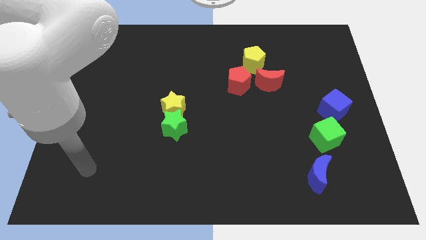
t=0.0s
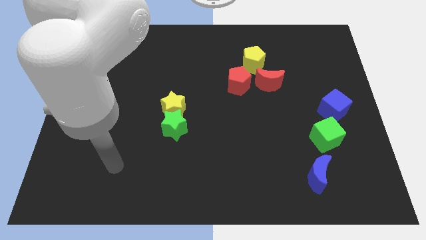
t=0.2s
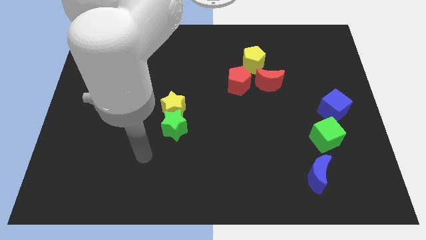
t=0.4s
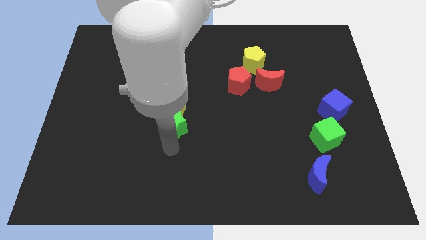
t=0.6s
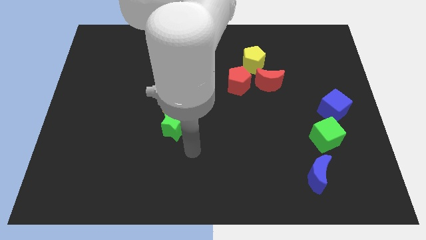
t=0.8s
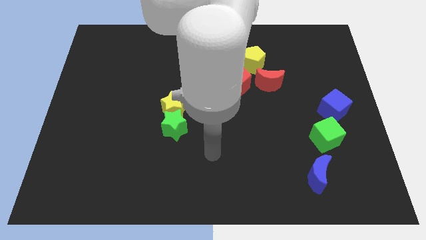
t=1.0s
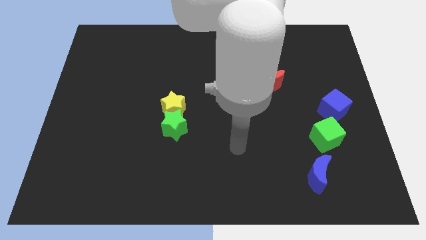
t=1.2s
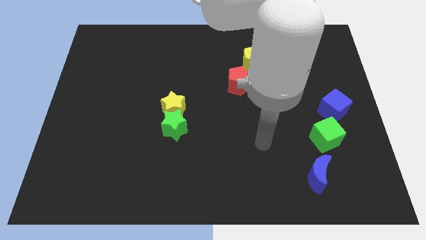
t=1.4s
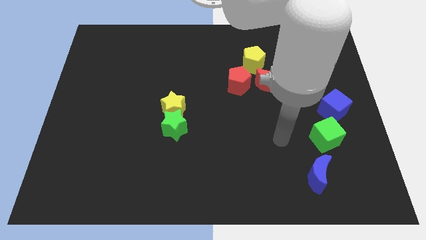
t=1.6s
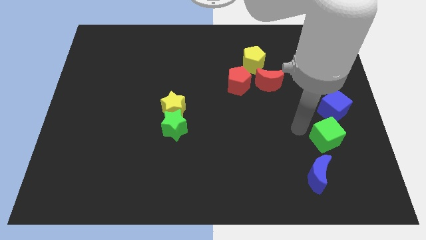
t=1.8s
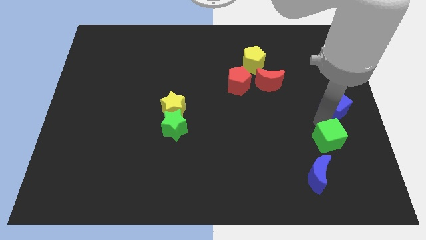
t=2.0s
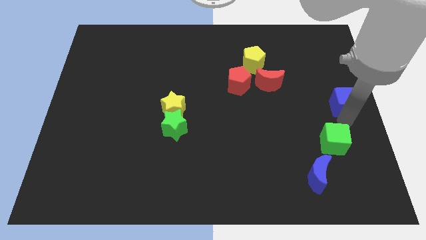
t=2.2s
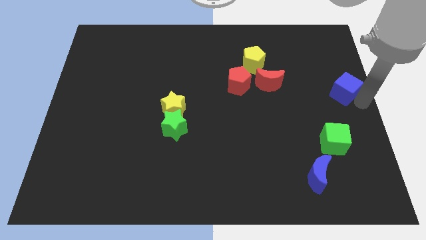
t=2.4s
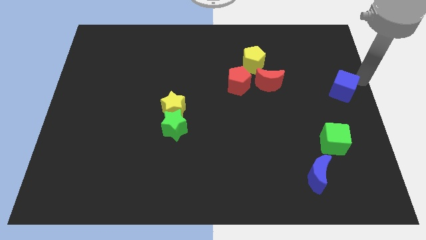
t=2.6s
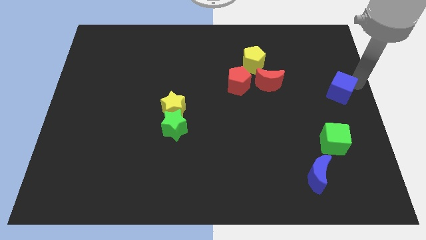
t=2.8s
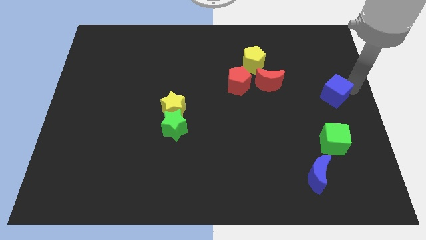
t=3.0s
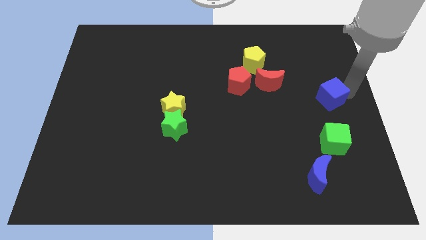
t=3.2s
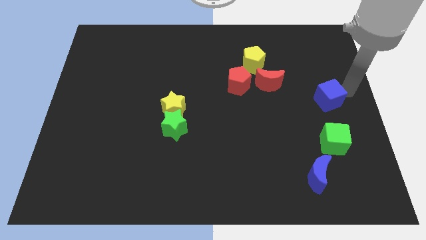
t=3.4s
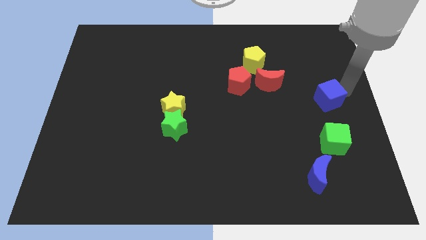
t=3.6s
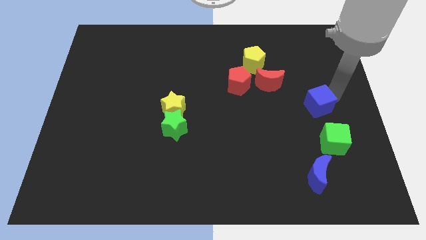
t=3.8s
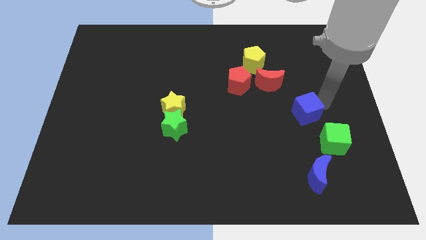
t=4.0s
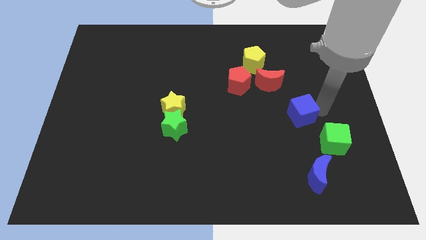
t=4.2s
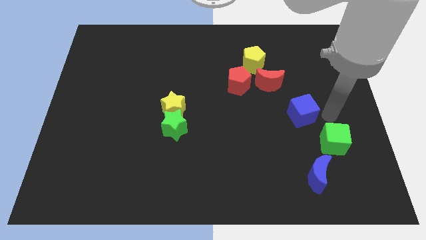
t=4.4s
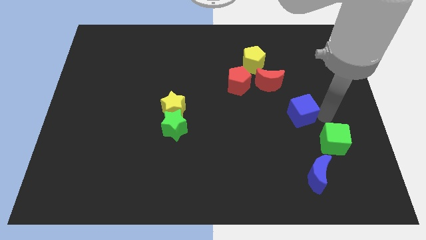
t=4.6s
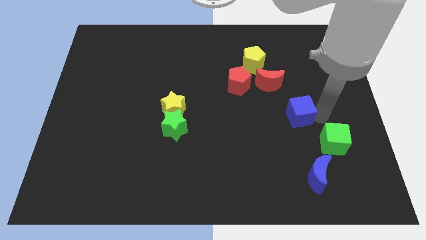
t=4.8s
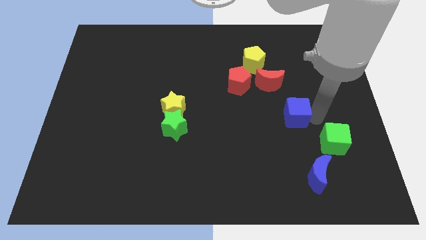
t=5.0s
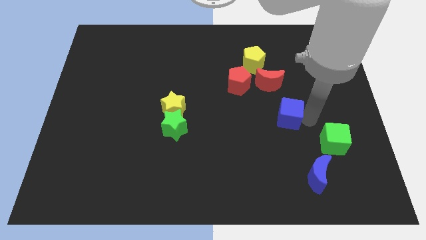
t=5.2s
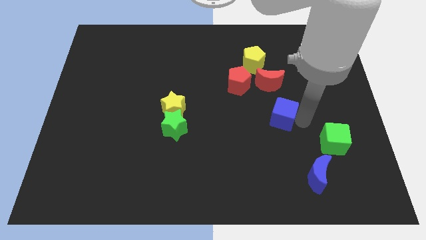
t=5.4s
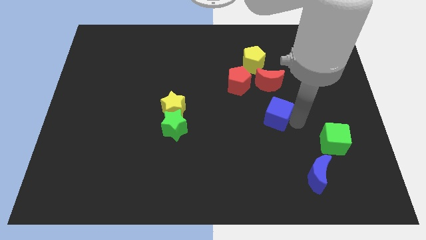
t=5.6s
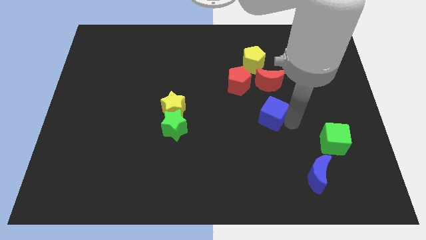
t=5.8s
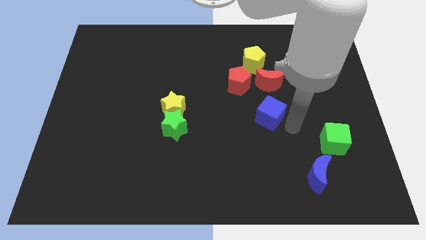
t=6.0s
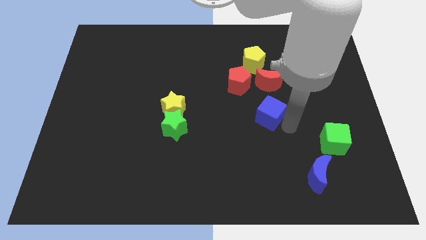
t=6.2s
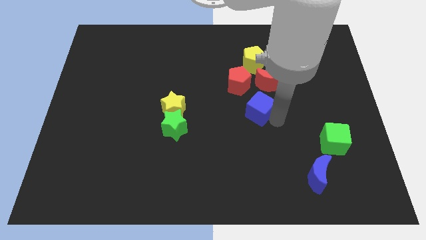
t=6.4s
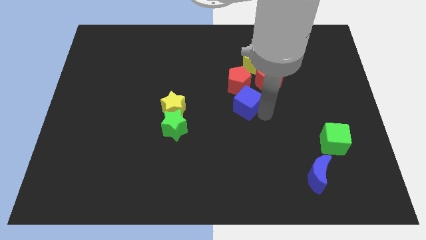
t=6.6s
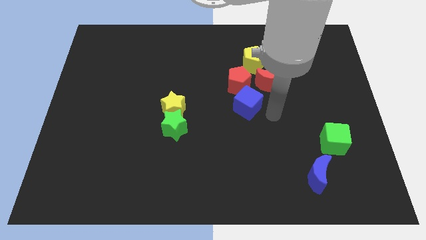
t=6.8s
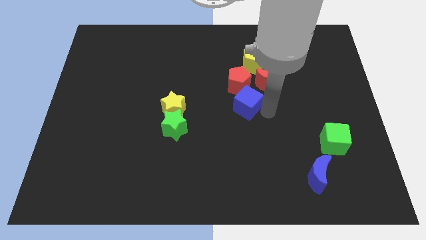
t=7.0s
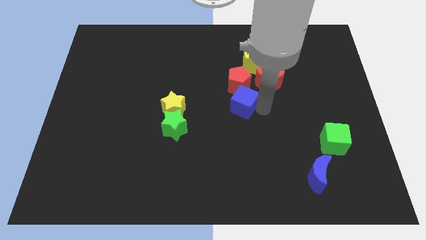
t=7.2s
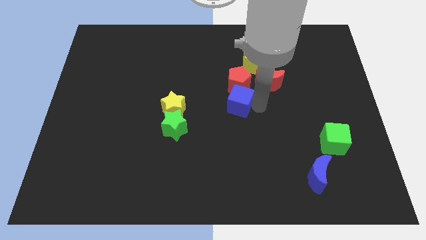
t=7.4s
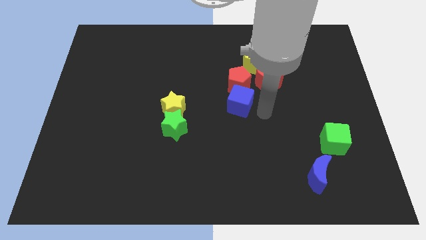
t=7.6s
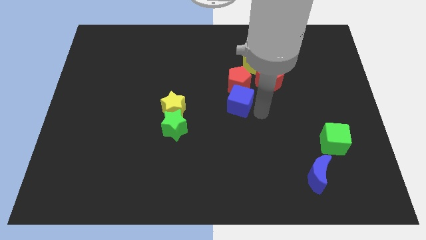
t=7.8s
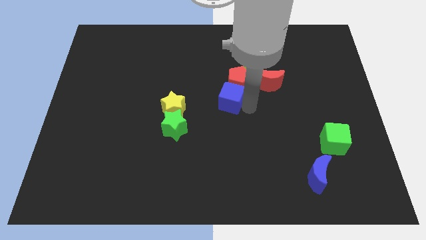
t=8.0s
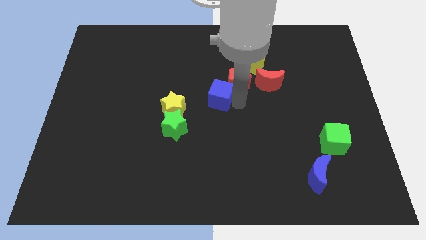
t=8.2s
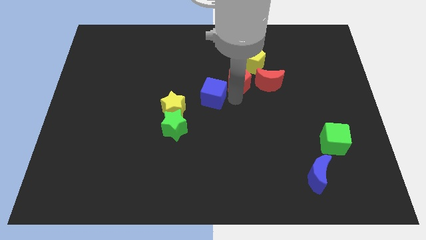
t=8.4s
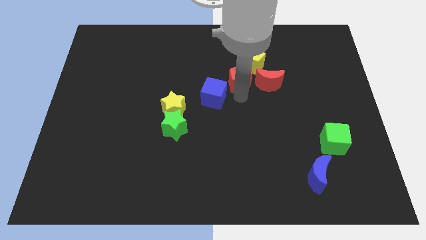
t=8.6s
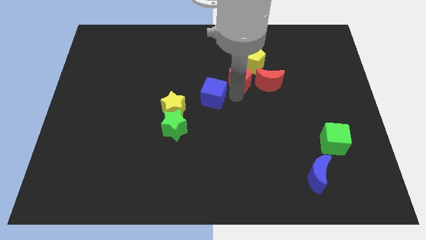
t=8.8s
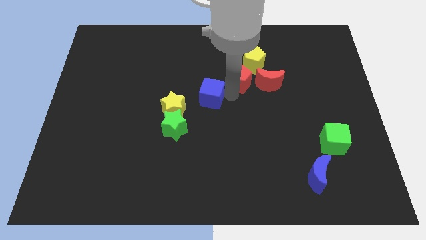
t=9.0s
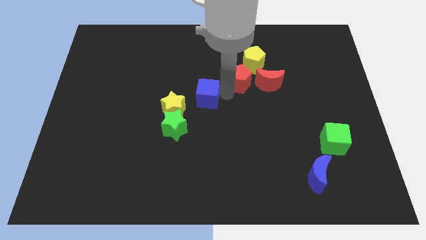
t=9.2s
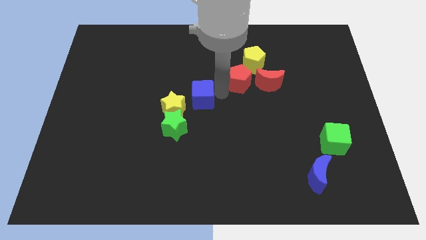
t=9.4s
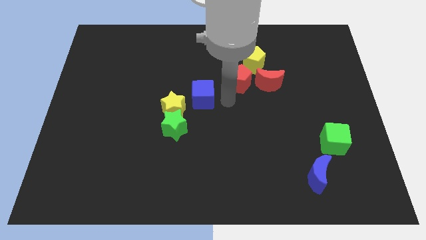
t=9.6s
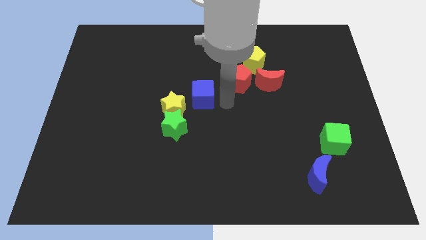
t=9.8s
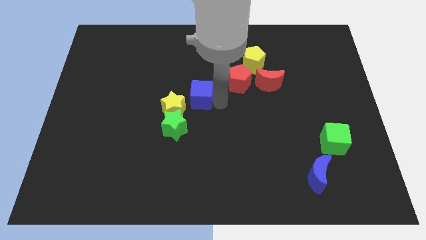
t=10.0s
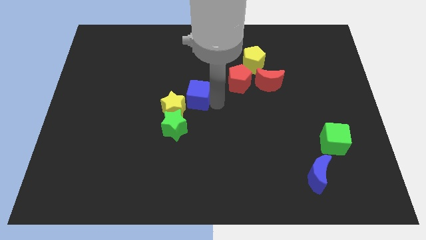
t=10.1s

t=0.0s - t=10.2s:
put the blue cube above the green star

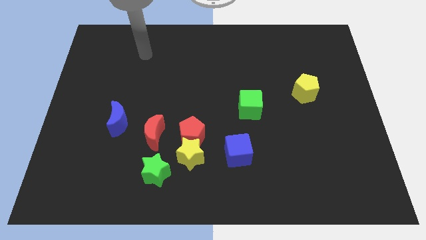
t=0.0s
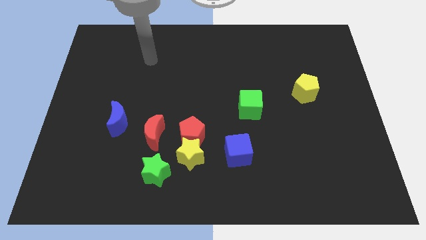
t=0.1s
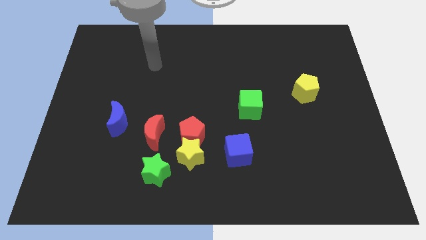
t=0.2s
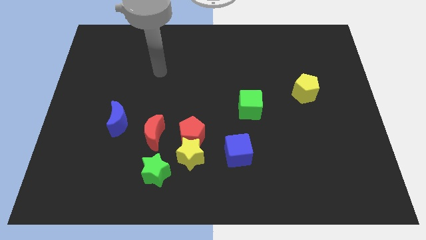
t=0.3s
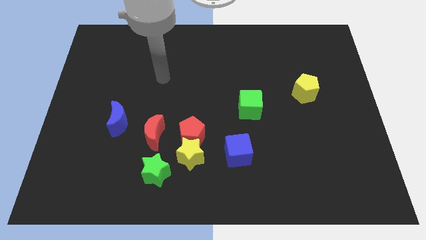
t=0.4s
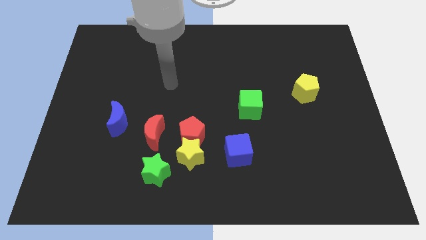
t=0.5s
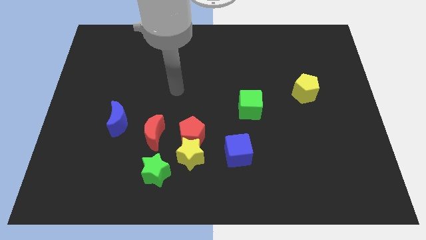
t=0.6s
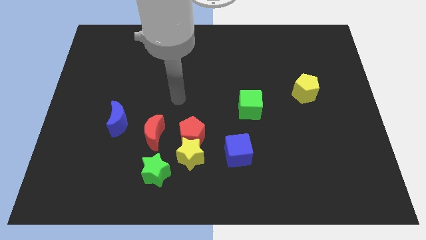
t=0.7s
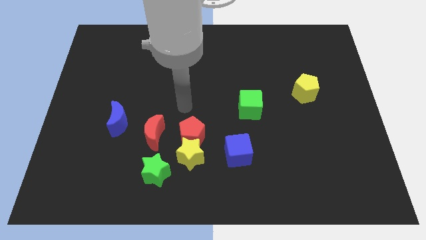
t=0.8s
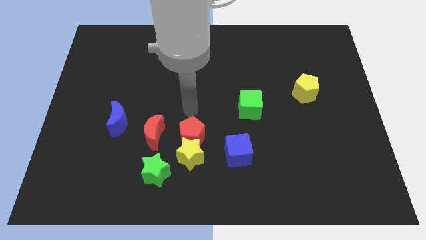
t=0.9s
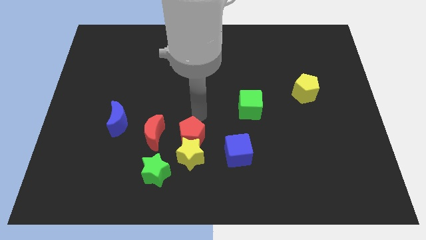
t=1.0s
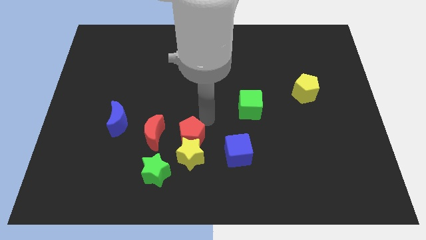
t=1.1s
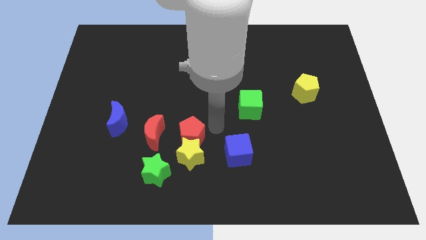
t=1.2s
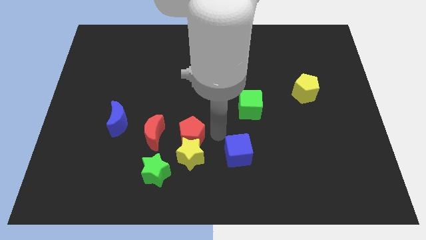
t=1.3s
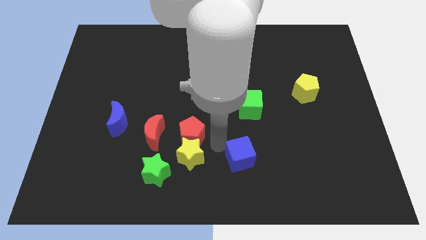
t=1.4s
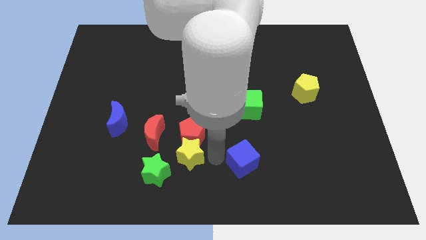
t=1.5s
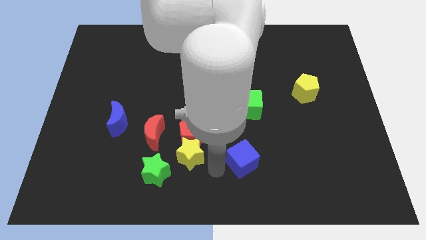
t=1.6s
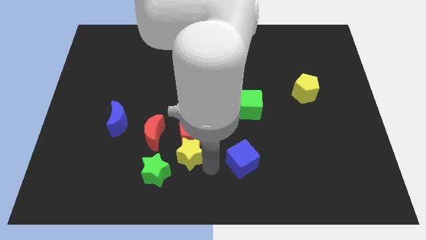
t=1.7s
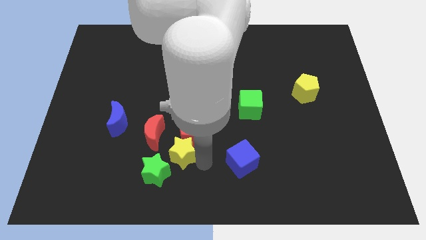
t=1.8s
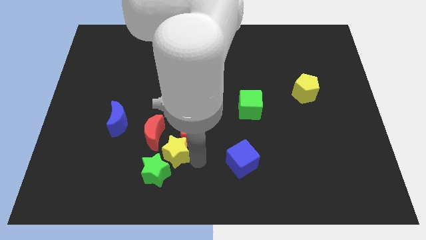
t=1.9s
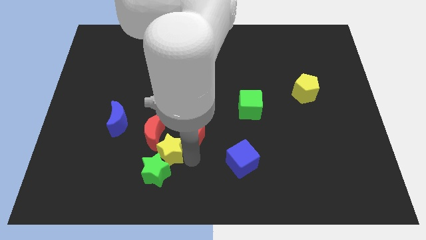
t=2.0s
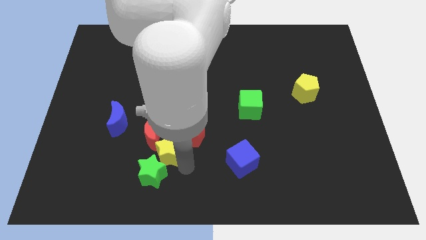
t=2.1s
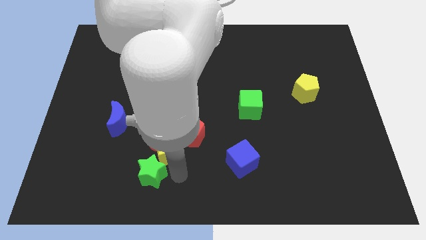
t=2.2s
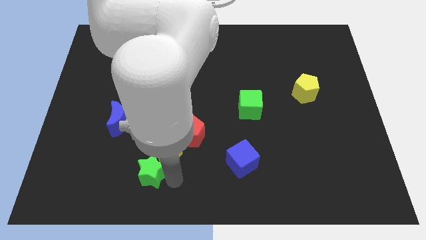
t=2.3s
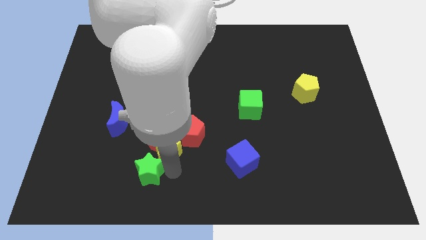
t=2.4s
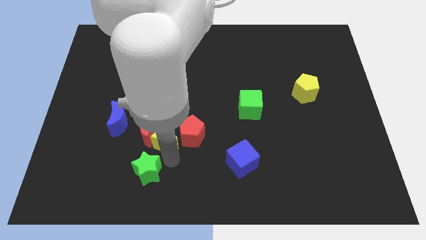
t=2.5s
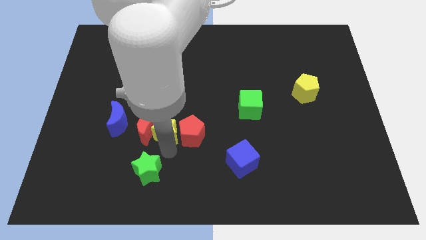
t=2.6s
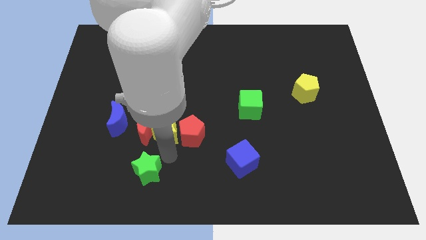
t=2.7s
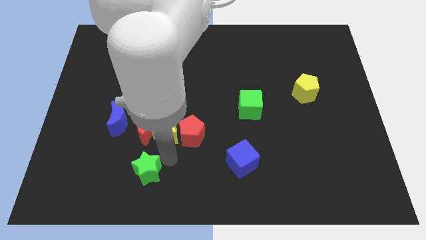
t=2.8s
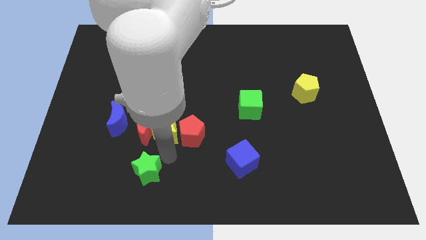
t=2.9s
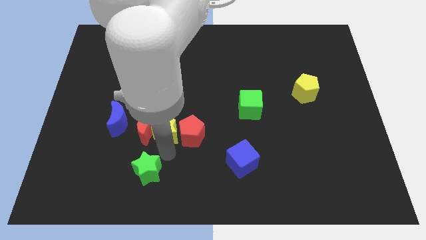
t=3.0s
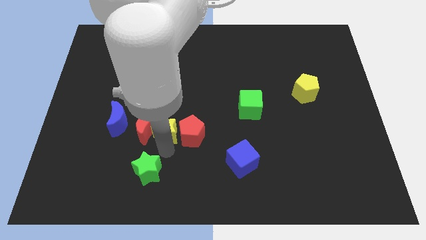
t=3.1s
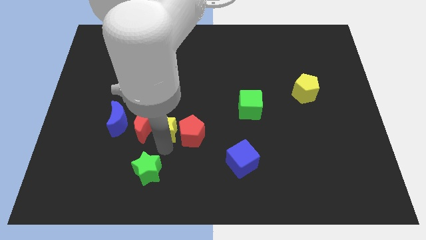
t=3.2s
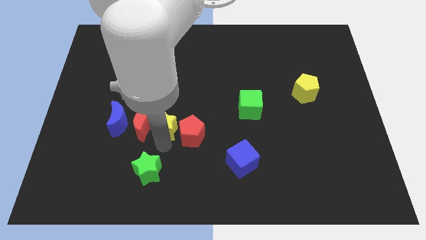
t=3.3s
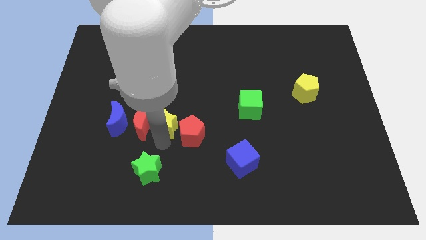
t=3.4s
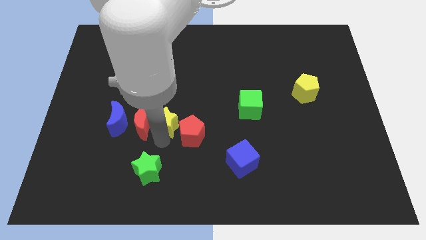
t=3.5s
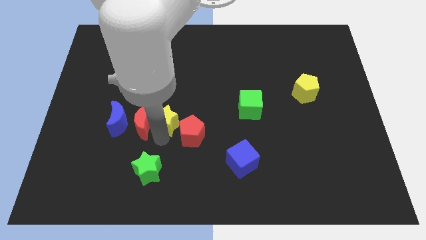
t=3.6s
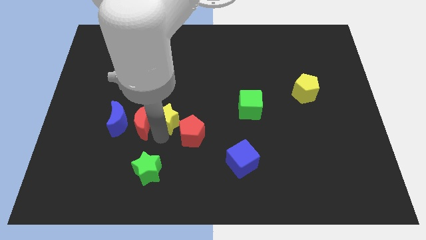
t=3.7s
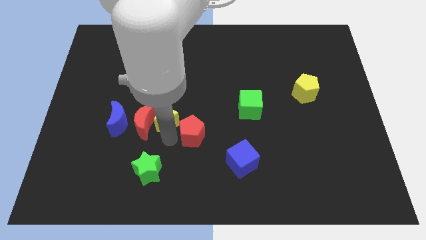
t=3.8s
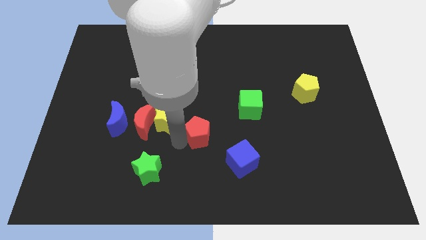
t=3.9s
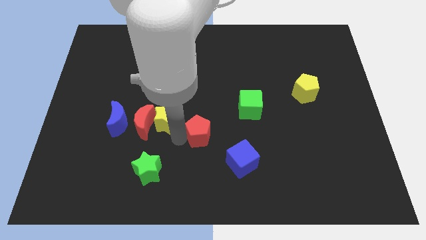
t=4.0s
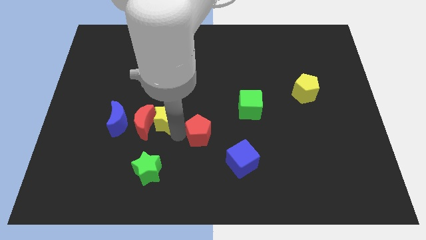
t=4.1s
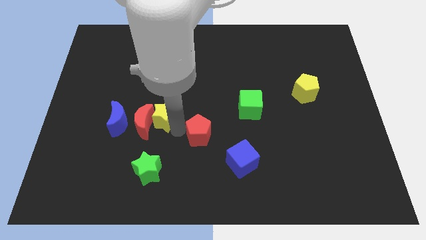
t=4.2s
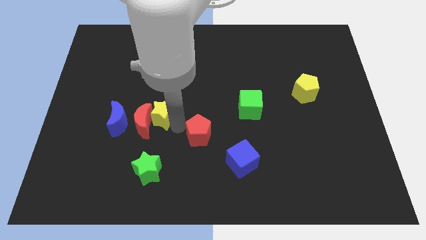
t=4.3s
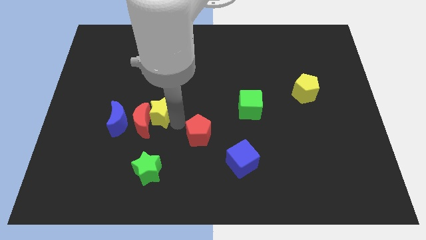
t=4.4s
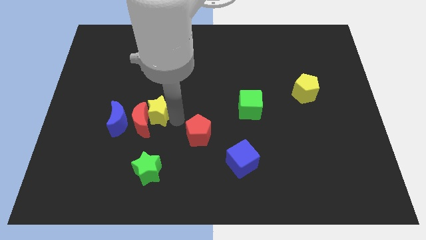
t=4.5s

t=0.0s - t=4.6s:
slide the yellow star above the red moon
